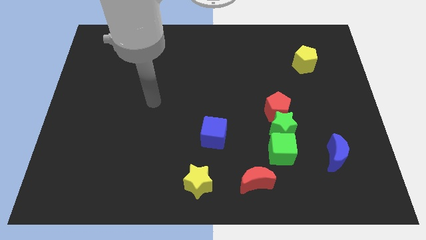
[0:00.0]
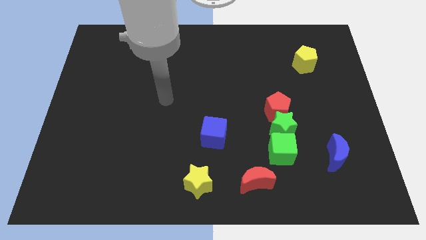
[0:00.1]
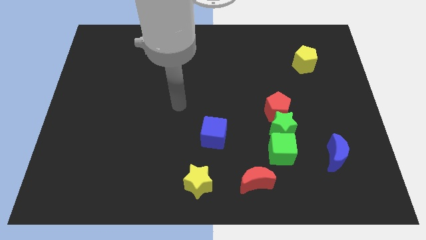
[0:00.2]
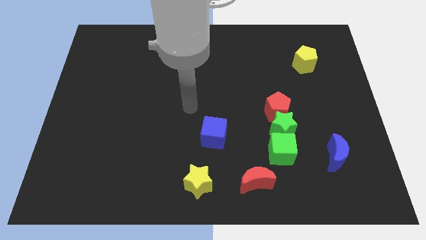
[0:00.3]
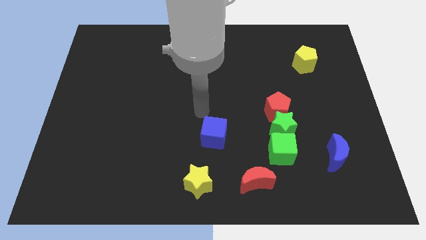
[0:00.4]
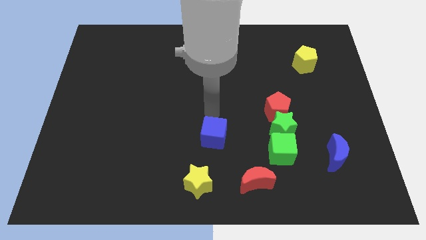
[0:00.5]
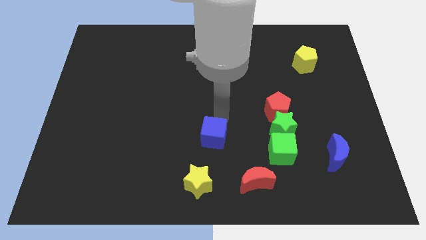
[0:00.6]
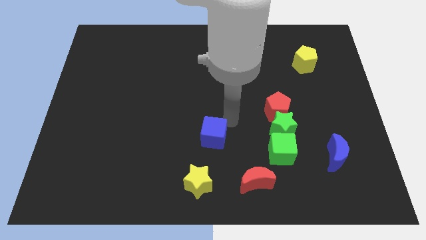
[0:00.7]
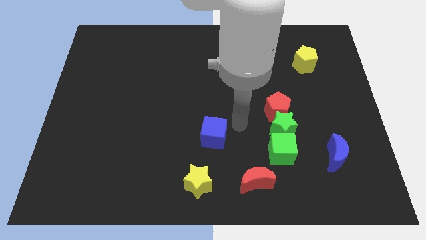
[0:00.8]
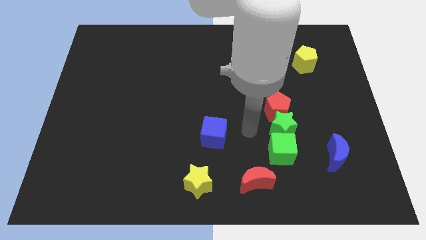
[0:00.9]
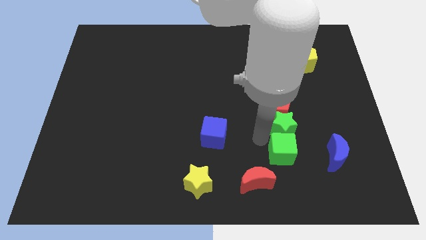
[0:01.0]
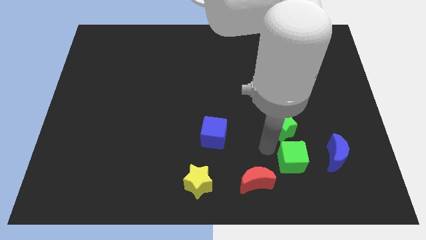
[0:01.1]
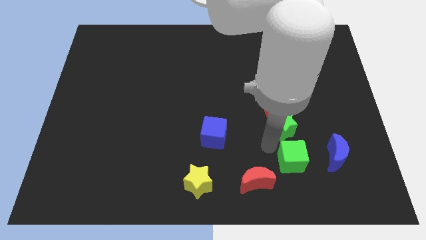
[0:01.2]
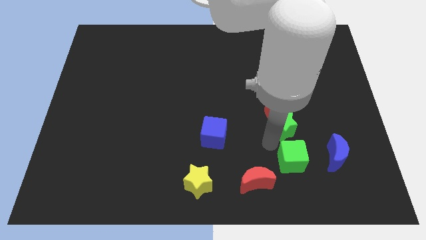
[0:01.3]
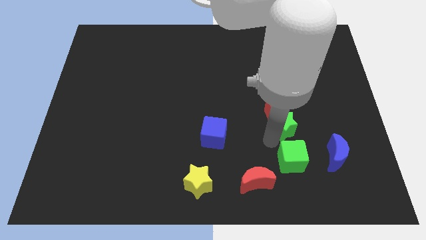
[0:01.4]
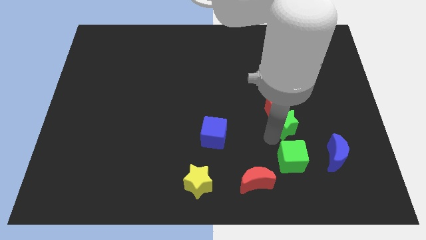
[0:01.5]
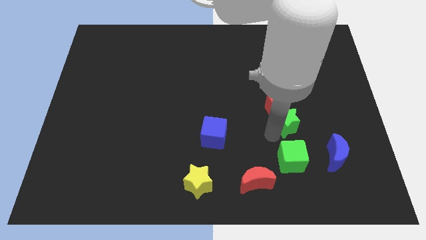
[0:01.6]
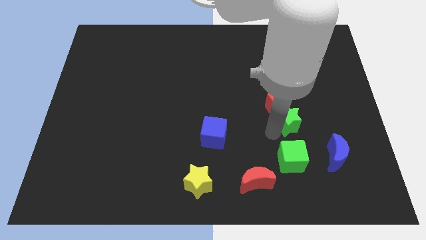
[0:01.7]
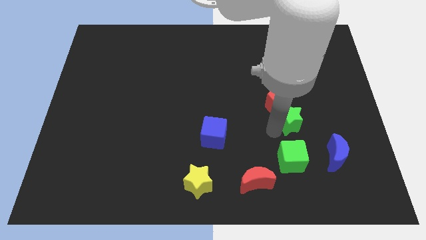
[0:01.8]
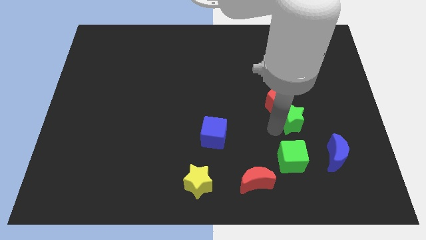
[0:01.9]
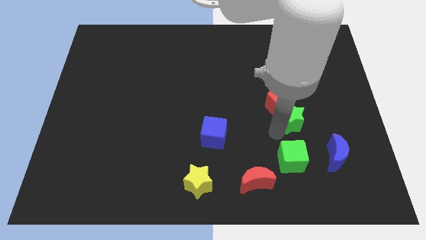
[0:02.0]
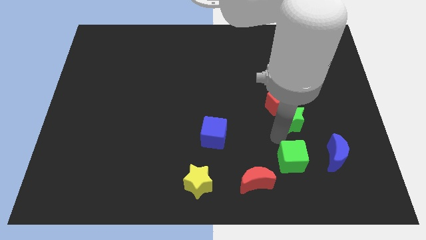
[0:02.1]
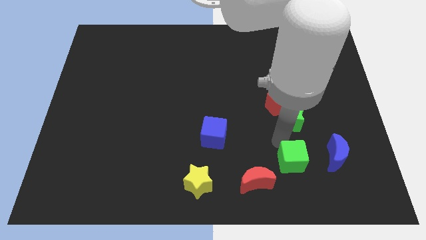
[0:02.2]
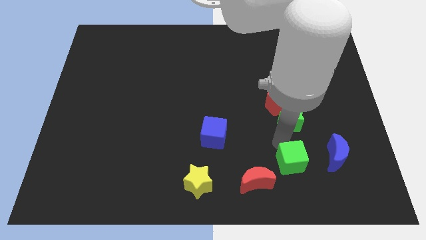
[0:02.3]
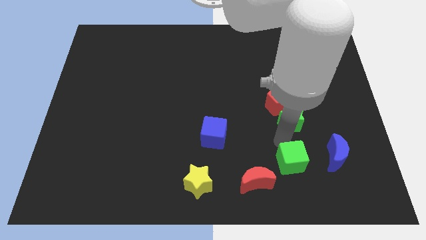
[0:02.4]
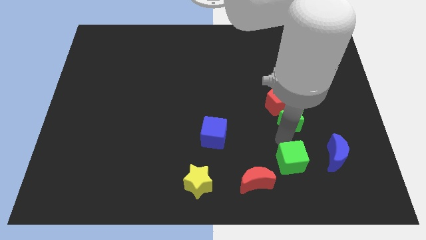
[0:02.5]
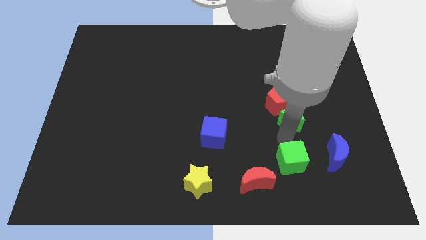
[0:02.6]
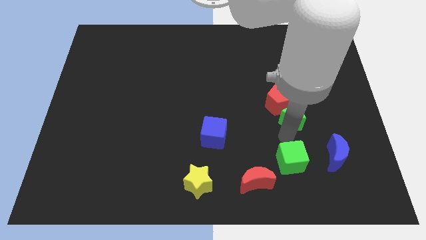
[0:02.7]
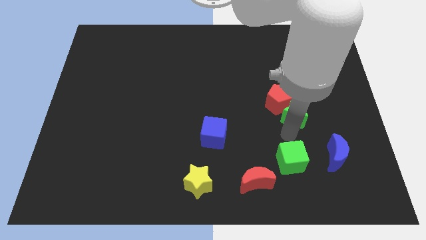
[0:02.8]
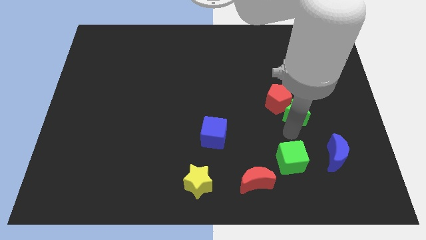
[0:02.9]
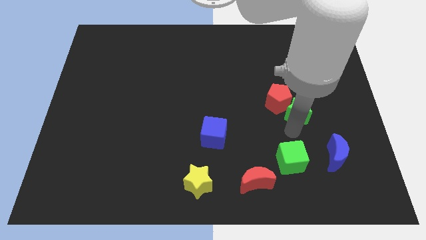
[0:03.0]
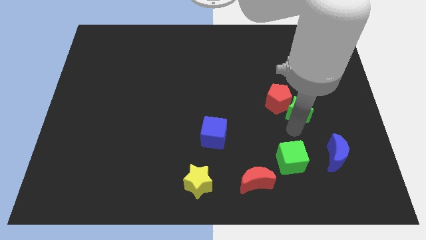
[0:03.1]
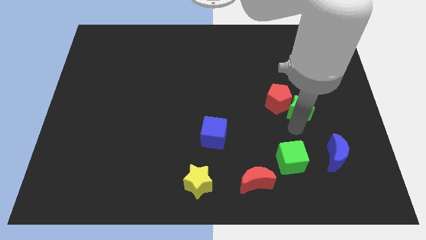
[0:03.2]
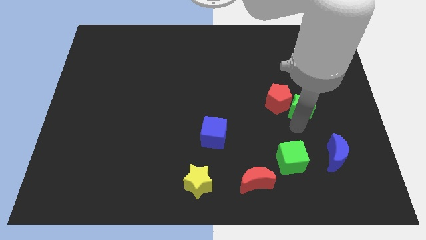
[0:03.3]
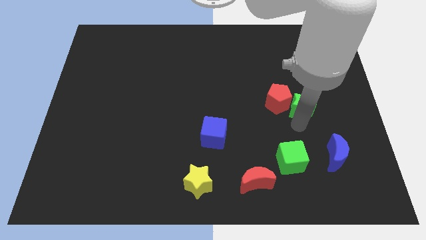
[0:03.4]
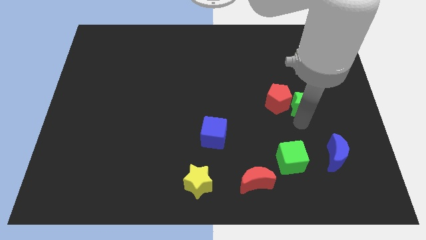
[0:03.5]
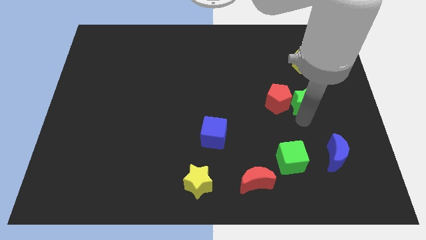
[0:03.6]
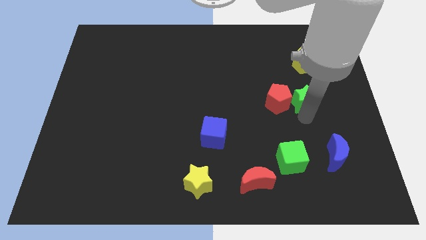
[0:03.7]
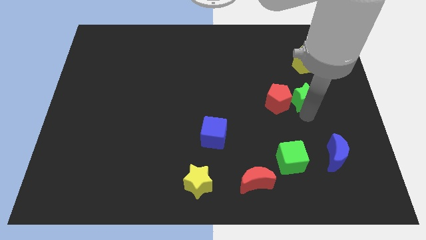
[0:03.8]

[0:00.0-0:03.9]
move the green star a little upwards

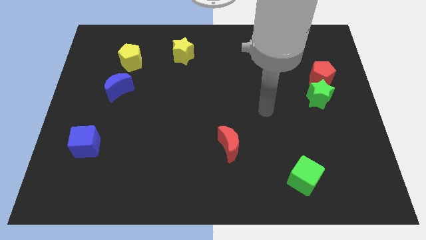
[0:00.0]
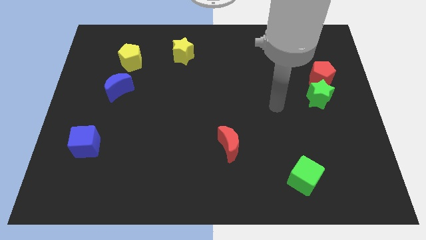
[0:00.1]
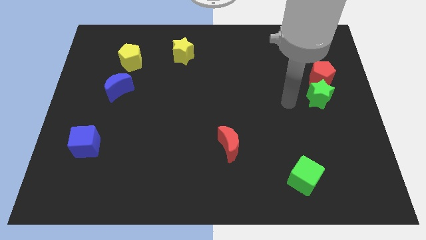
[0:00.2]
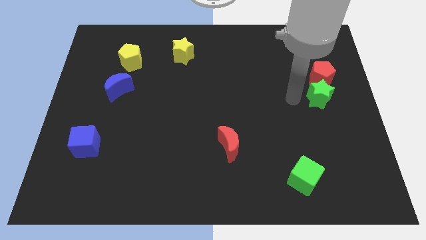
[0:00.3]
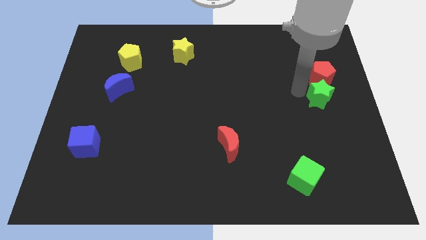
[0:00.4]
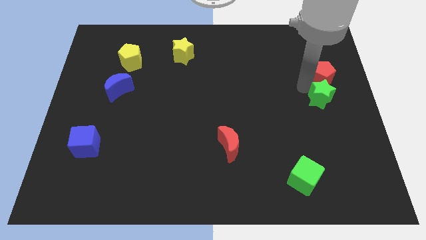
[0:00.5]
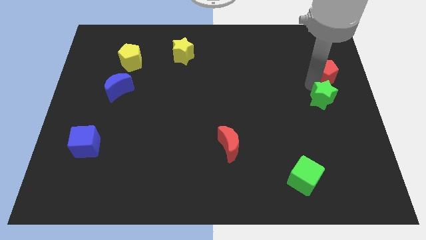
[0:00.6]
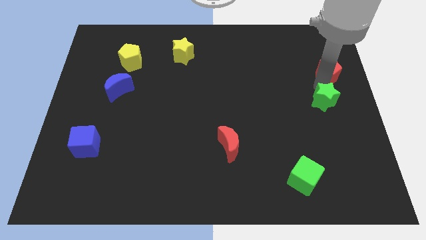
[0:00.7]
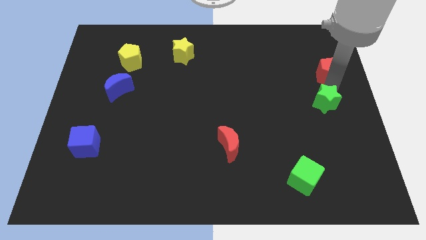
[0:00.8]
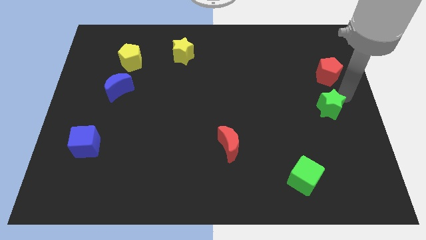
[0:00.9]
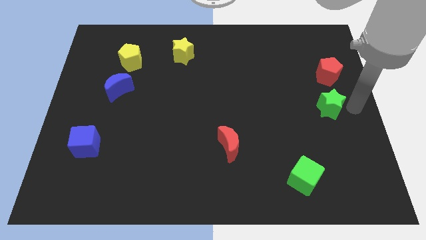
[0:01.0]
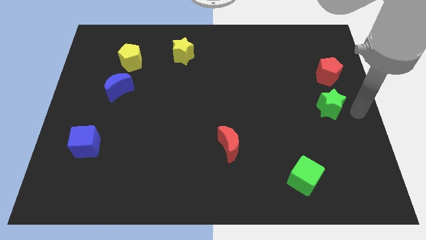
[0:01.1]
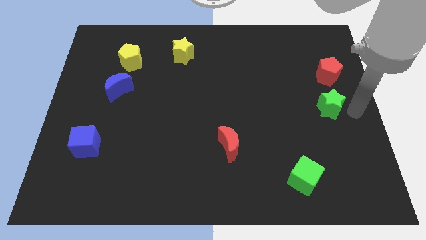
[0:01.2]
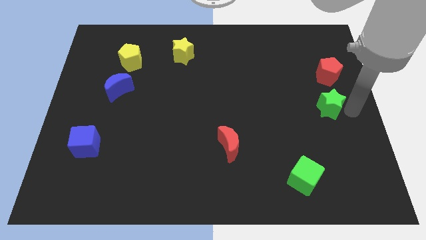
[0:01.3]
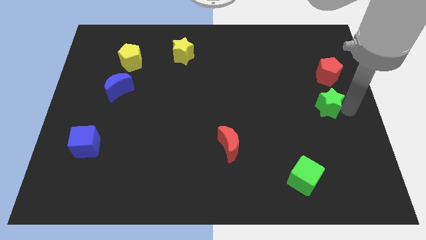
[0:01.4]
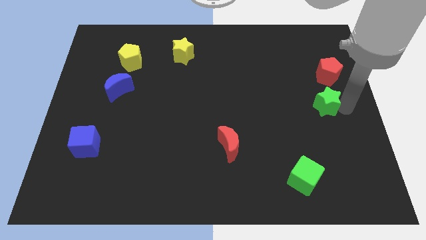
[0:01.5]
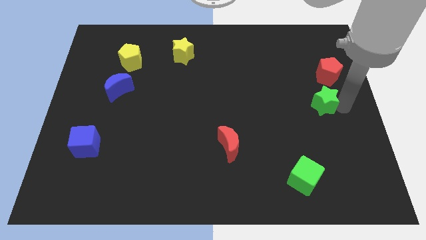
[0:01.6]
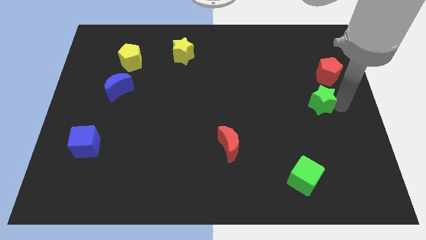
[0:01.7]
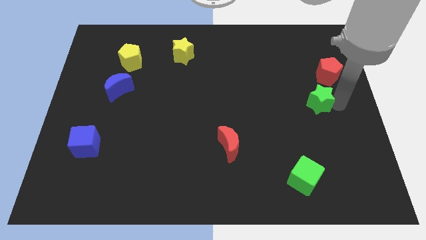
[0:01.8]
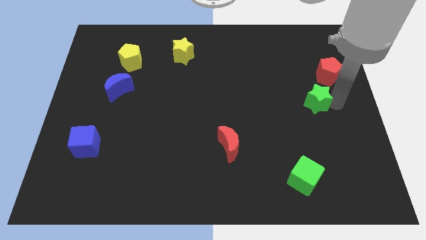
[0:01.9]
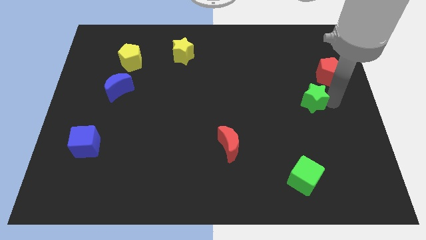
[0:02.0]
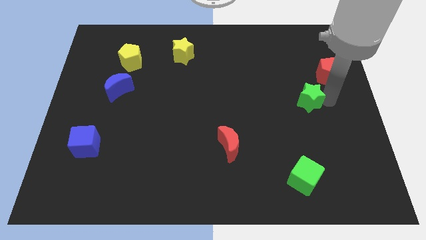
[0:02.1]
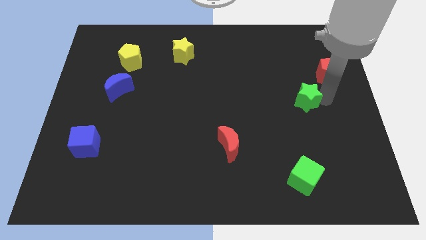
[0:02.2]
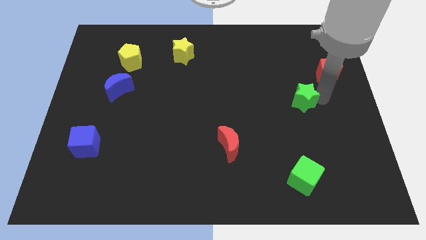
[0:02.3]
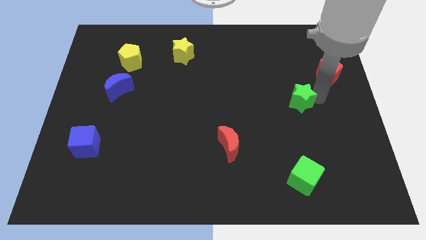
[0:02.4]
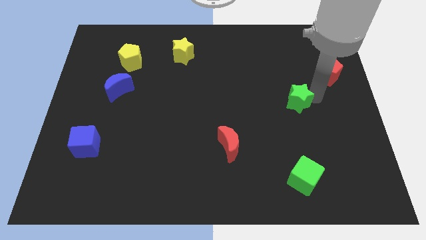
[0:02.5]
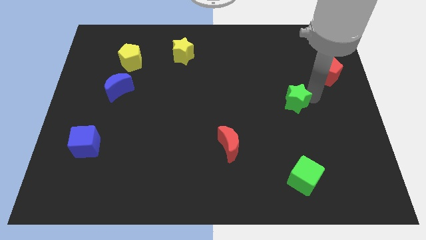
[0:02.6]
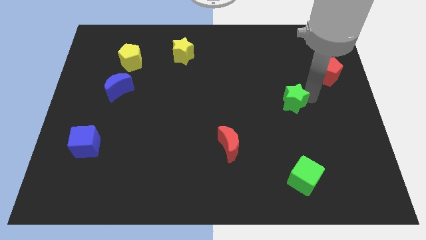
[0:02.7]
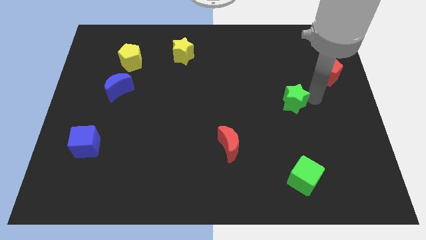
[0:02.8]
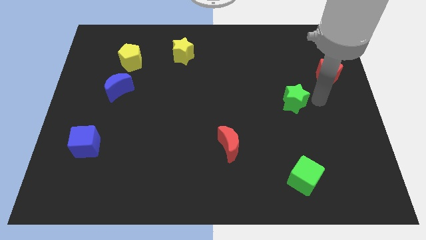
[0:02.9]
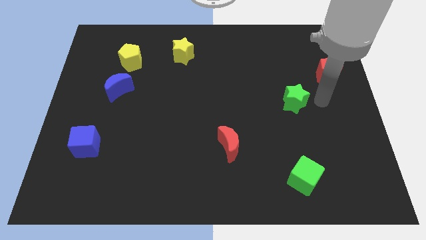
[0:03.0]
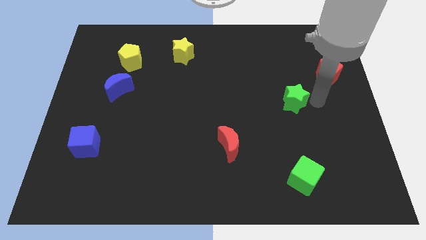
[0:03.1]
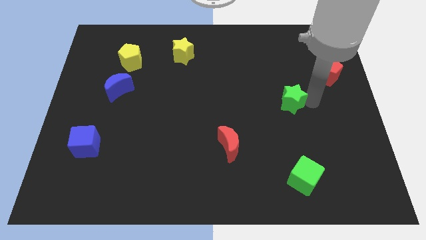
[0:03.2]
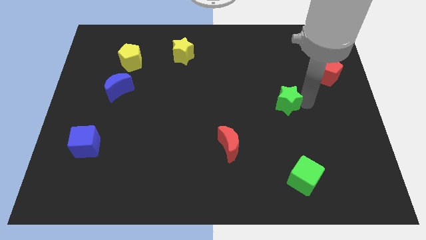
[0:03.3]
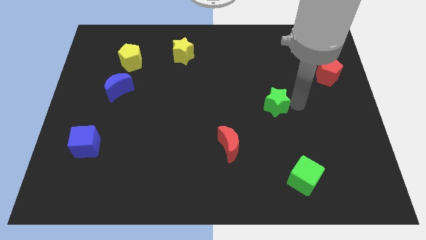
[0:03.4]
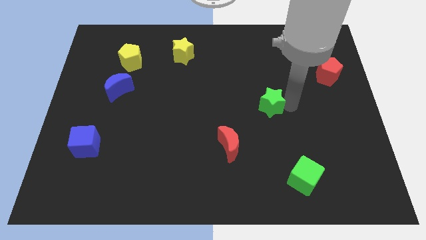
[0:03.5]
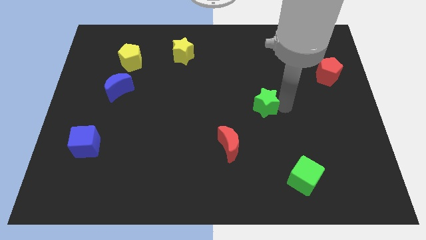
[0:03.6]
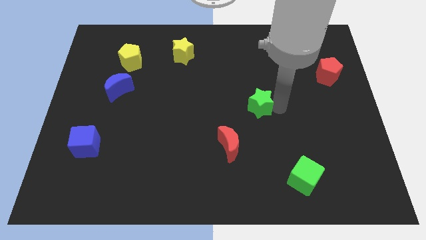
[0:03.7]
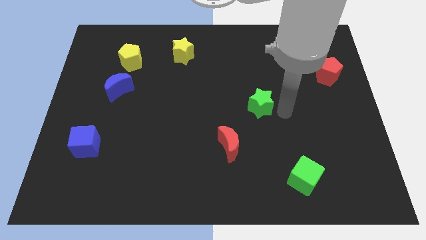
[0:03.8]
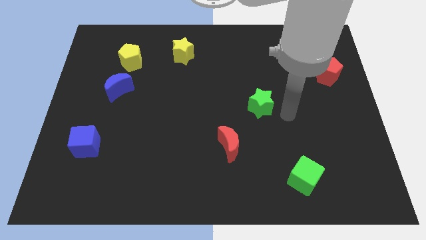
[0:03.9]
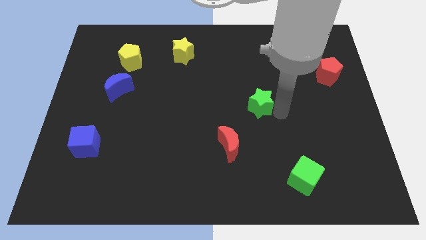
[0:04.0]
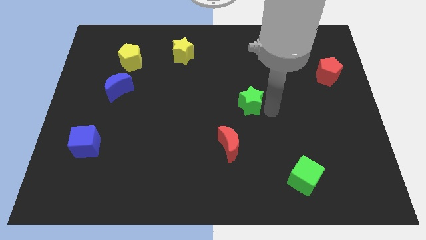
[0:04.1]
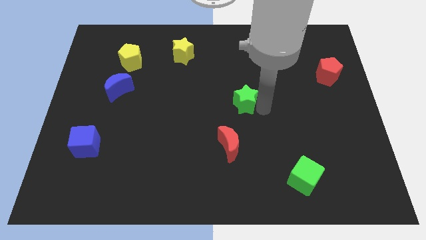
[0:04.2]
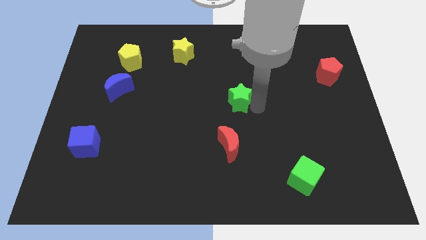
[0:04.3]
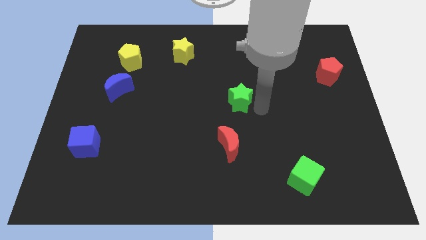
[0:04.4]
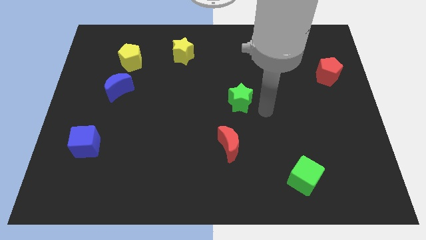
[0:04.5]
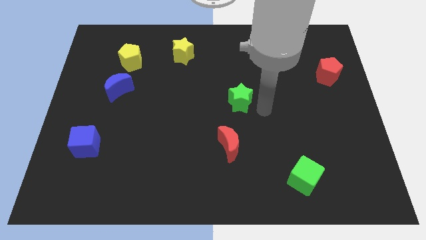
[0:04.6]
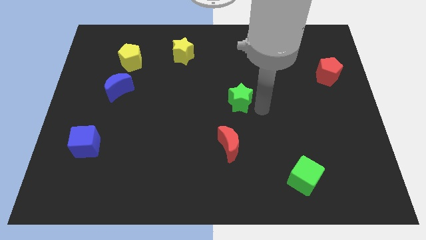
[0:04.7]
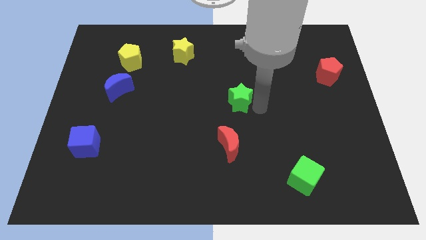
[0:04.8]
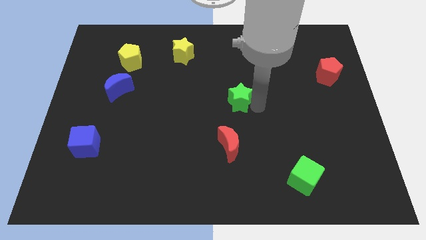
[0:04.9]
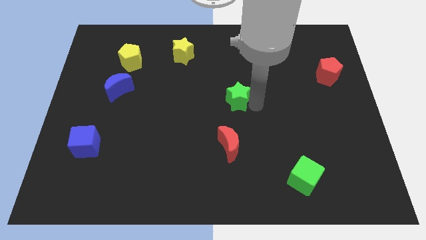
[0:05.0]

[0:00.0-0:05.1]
slide the green star to the left
